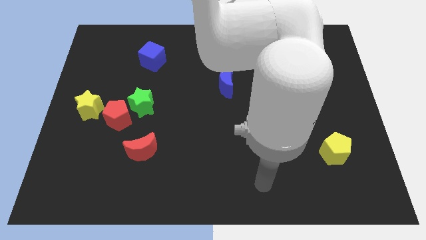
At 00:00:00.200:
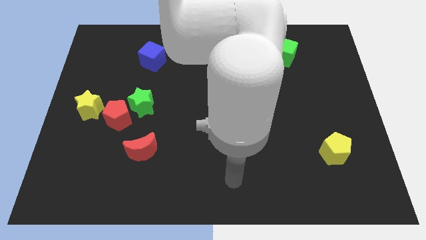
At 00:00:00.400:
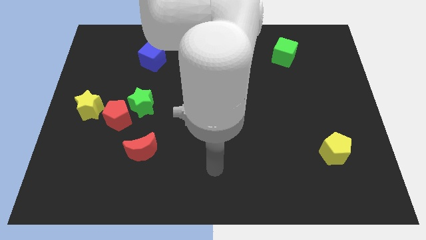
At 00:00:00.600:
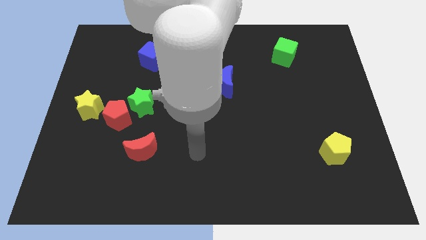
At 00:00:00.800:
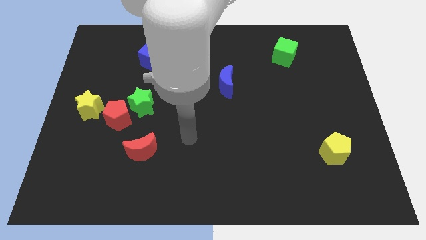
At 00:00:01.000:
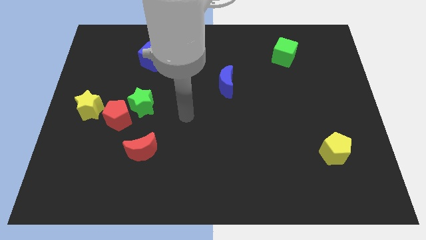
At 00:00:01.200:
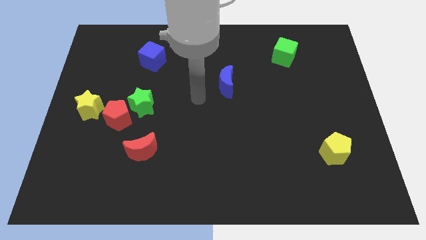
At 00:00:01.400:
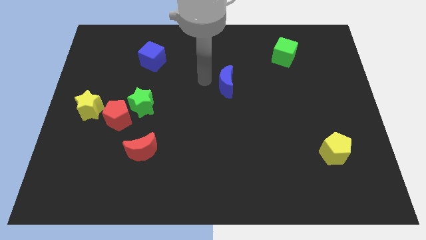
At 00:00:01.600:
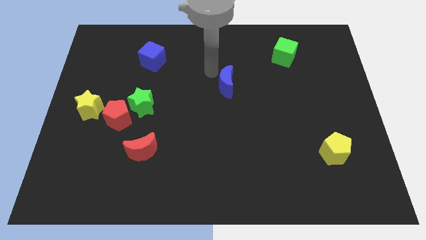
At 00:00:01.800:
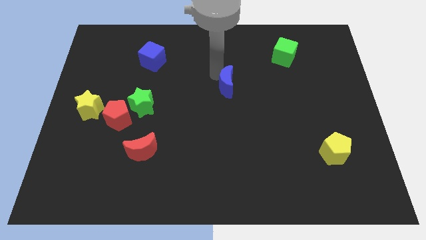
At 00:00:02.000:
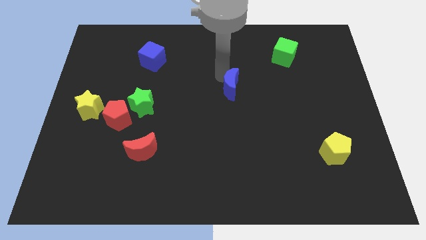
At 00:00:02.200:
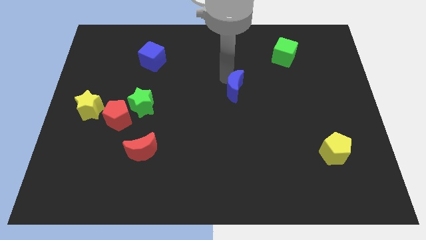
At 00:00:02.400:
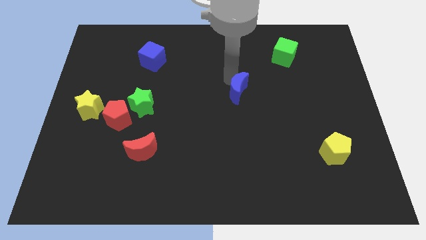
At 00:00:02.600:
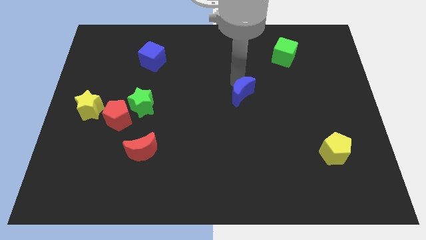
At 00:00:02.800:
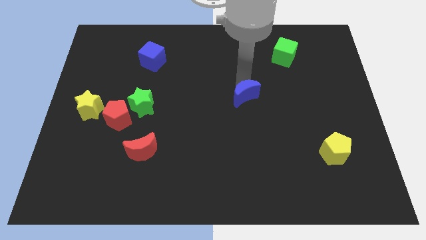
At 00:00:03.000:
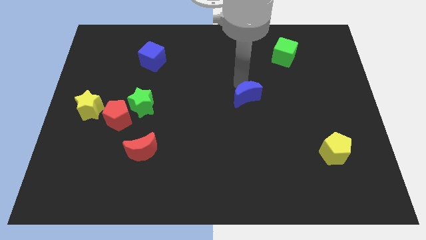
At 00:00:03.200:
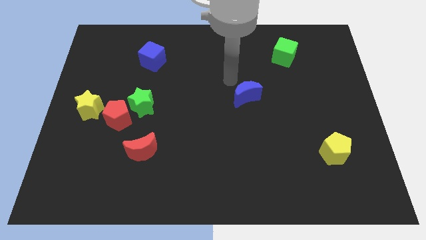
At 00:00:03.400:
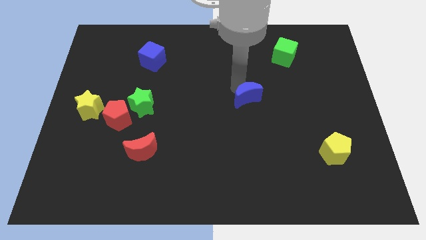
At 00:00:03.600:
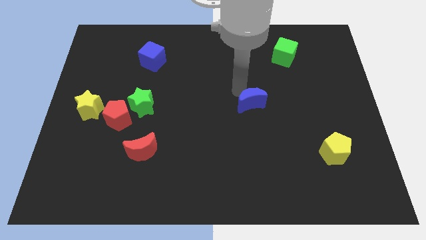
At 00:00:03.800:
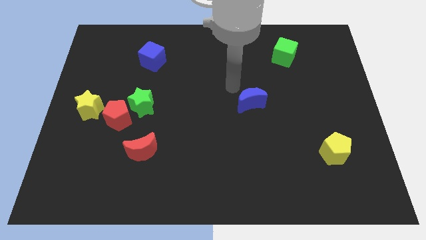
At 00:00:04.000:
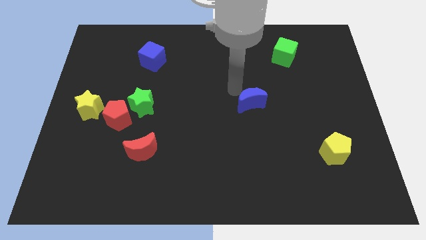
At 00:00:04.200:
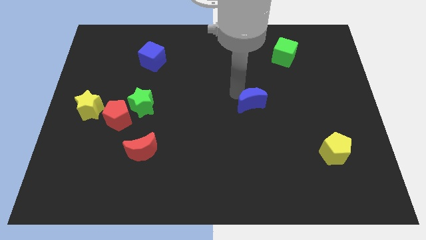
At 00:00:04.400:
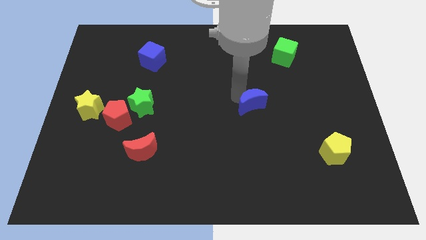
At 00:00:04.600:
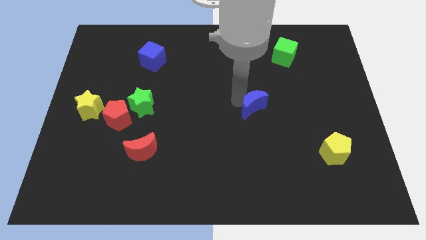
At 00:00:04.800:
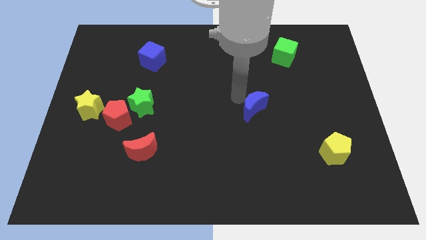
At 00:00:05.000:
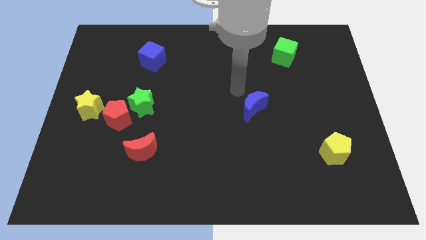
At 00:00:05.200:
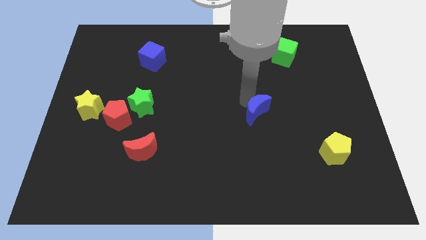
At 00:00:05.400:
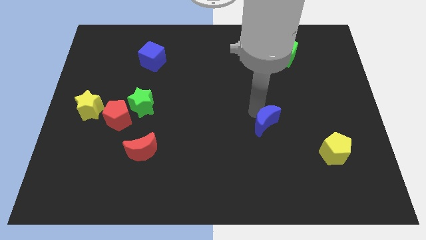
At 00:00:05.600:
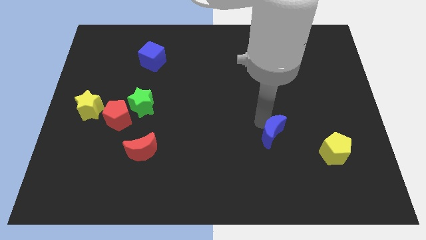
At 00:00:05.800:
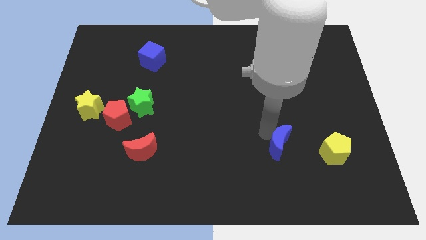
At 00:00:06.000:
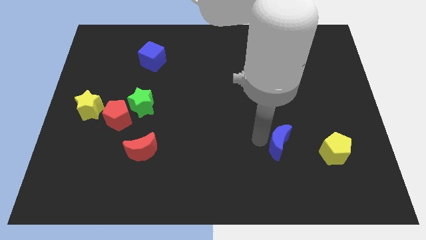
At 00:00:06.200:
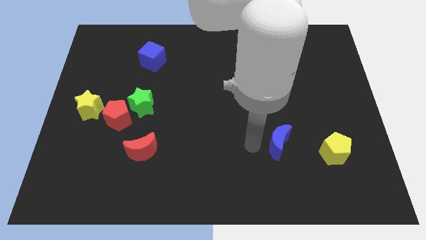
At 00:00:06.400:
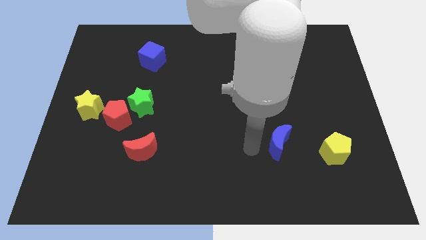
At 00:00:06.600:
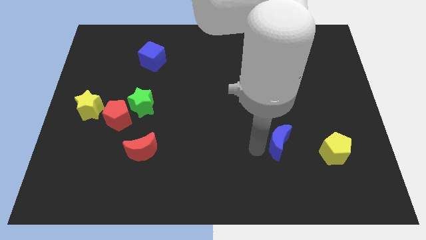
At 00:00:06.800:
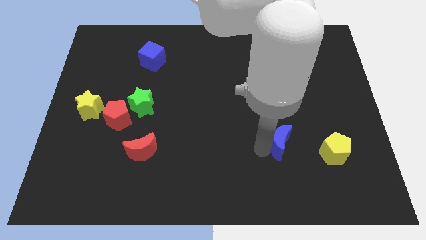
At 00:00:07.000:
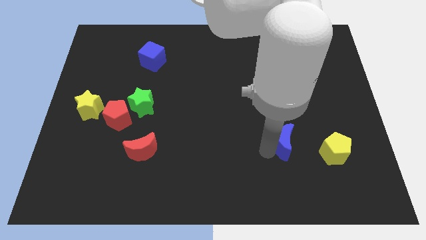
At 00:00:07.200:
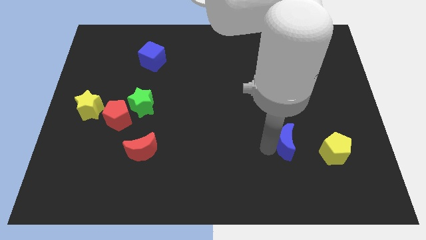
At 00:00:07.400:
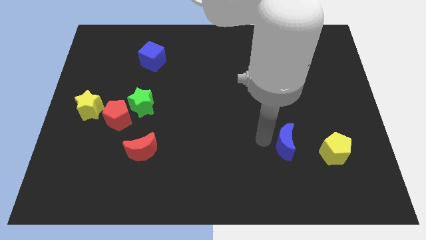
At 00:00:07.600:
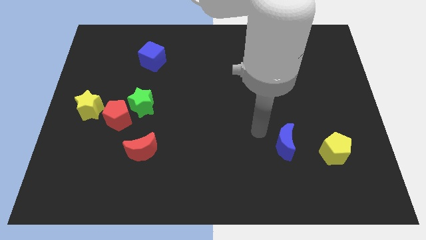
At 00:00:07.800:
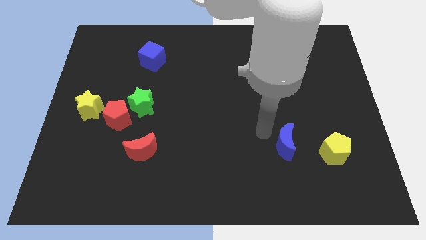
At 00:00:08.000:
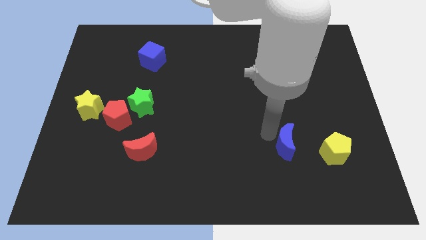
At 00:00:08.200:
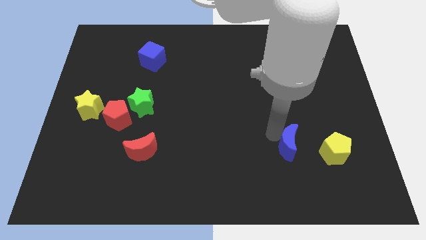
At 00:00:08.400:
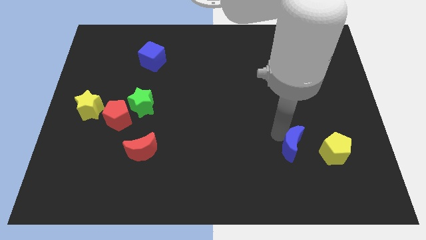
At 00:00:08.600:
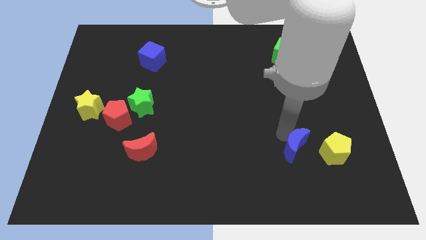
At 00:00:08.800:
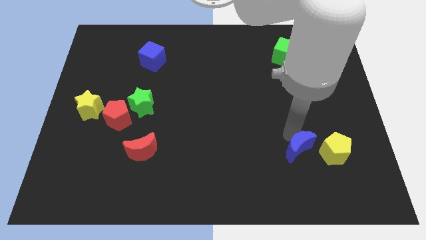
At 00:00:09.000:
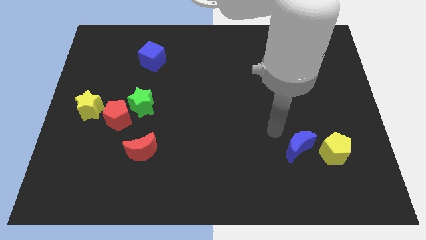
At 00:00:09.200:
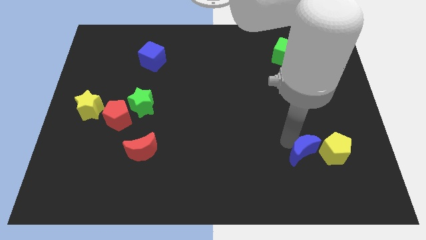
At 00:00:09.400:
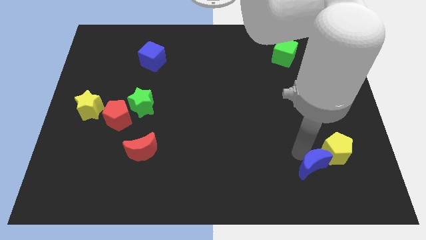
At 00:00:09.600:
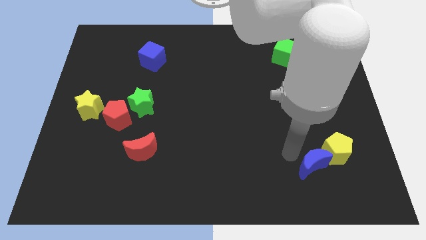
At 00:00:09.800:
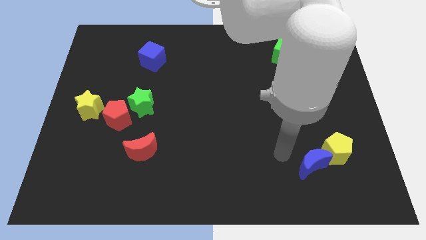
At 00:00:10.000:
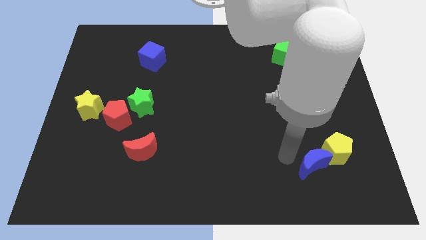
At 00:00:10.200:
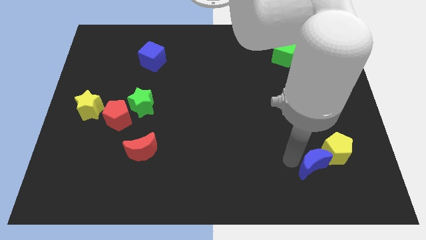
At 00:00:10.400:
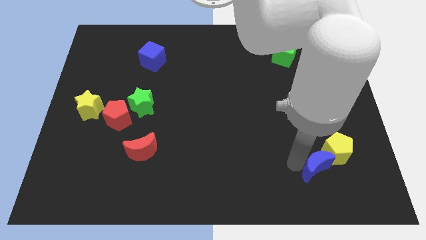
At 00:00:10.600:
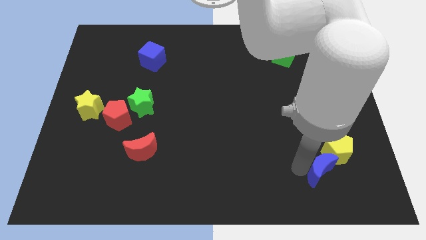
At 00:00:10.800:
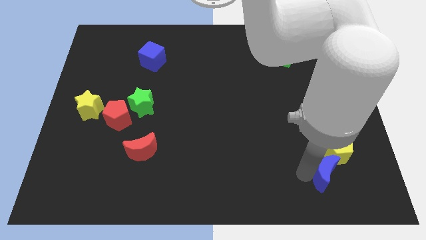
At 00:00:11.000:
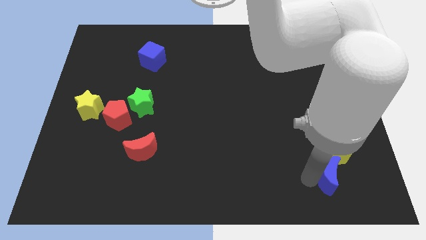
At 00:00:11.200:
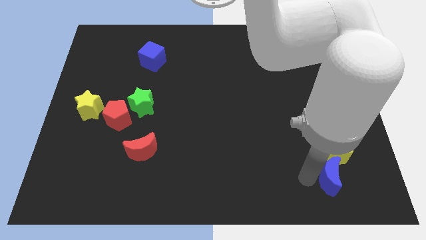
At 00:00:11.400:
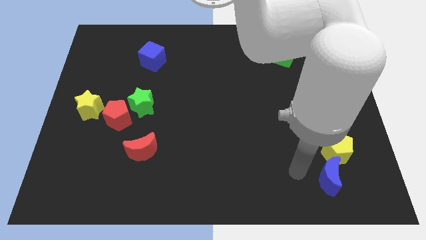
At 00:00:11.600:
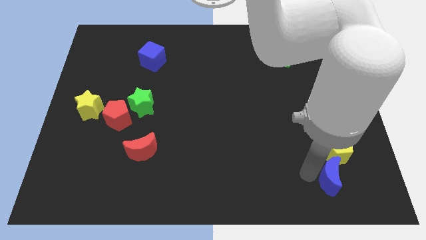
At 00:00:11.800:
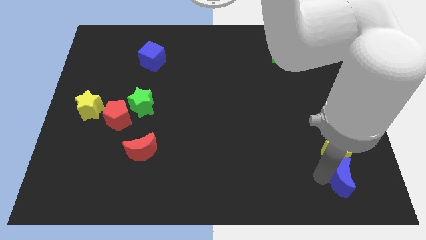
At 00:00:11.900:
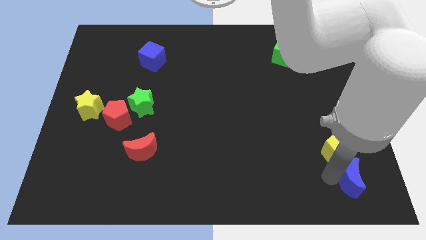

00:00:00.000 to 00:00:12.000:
push the blue moon to the bottom right corner
